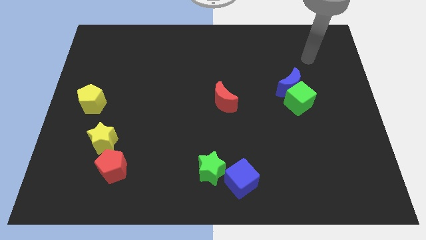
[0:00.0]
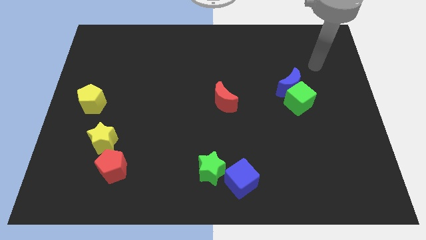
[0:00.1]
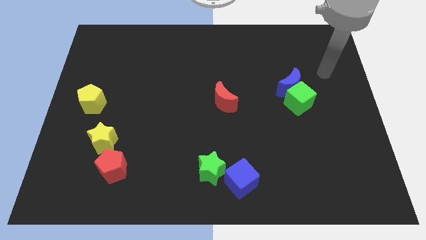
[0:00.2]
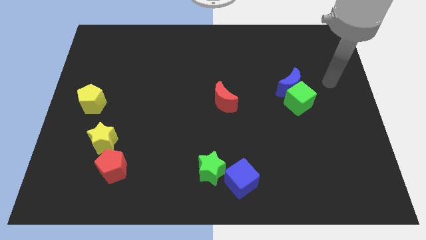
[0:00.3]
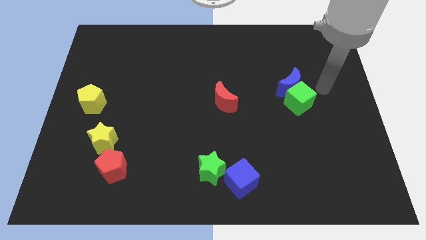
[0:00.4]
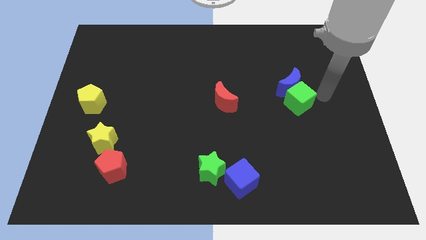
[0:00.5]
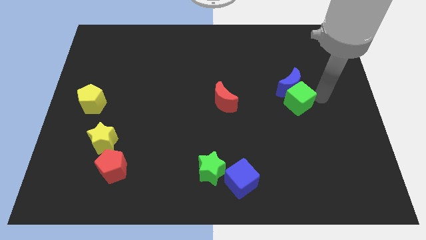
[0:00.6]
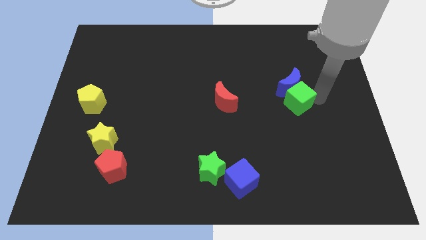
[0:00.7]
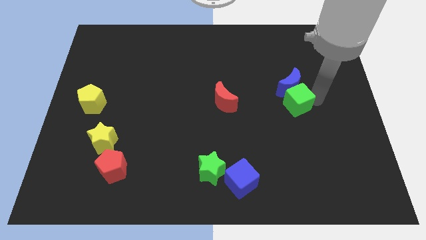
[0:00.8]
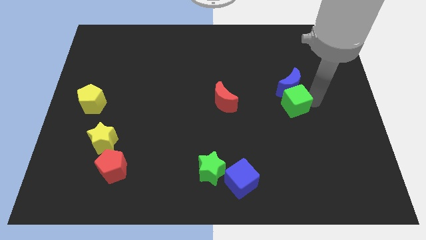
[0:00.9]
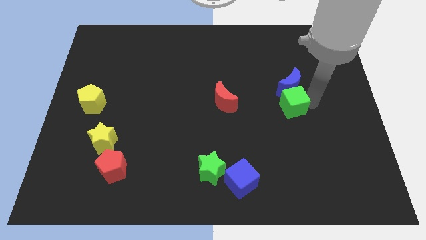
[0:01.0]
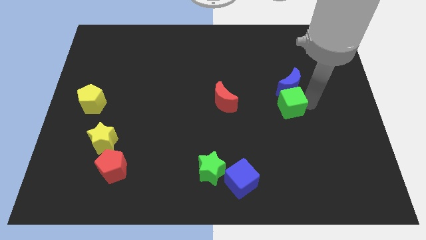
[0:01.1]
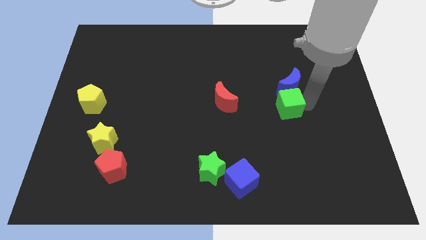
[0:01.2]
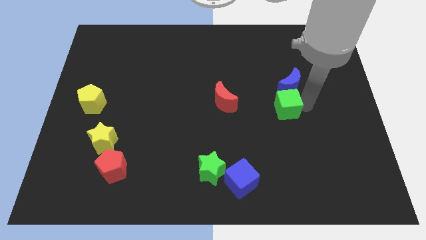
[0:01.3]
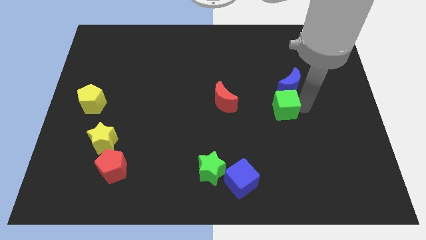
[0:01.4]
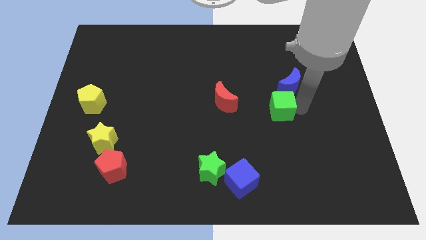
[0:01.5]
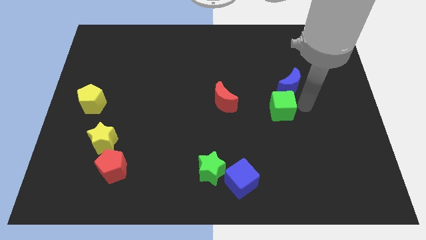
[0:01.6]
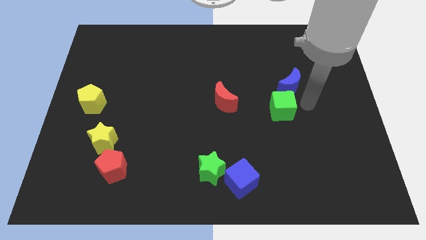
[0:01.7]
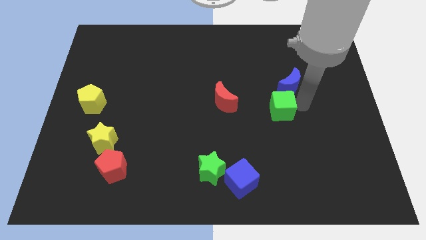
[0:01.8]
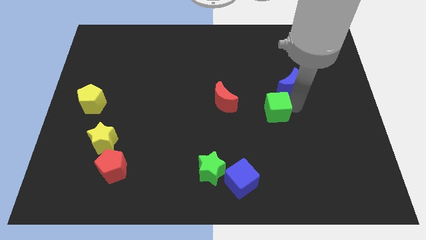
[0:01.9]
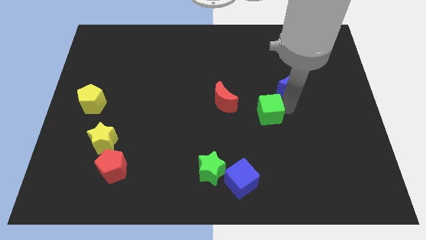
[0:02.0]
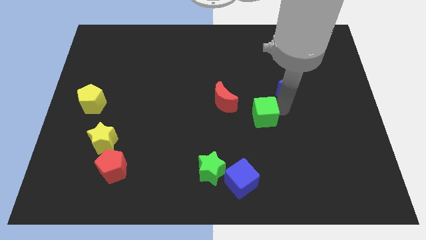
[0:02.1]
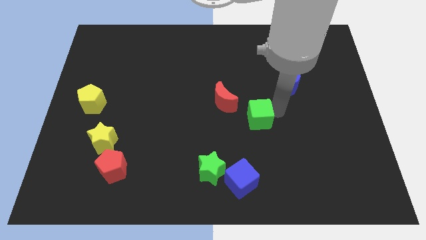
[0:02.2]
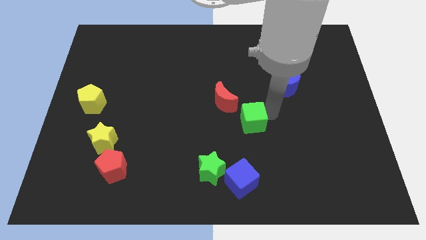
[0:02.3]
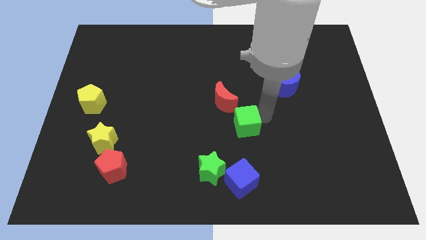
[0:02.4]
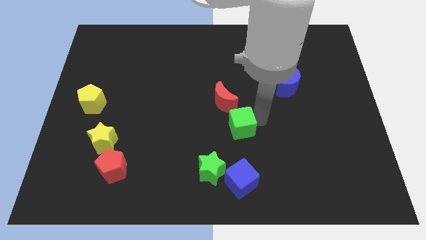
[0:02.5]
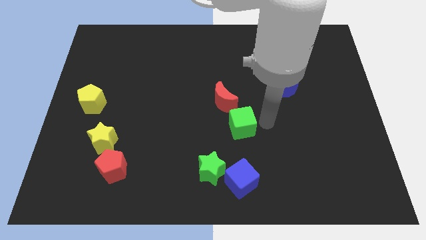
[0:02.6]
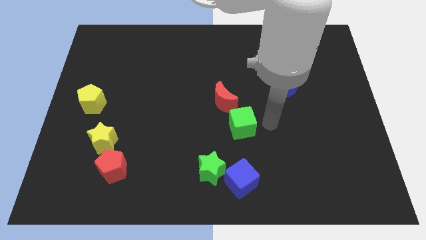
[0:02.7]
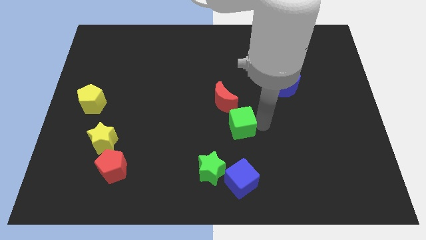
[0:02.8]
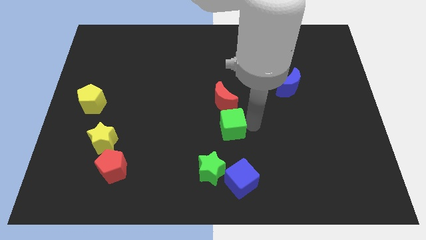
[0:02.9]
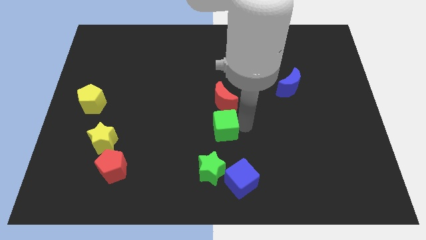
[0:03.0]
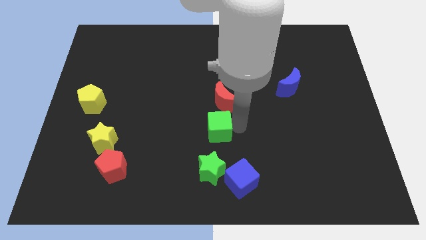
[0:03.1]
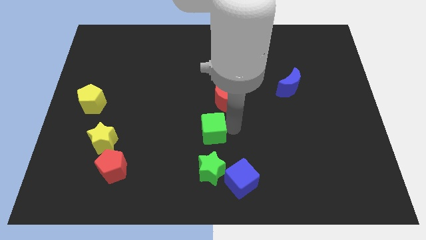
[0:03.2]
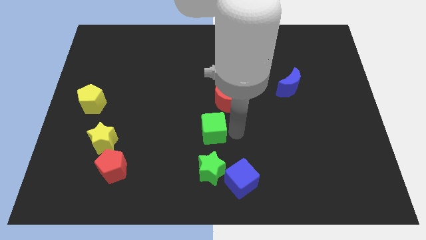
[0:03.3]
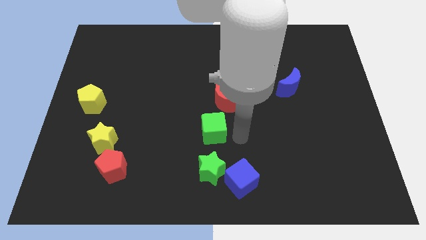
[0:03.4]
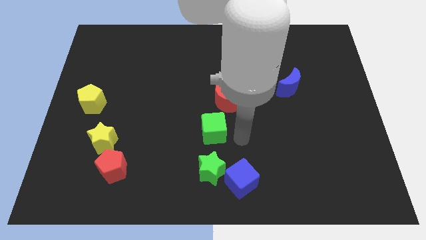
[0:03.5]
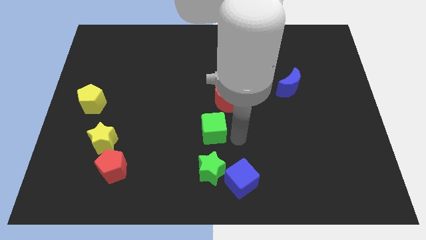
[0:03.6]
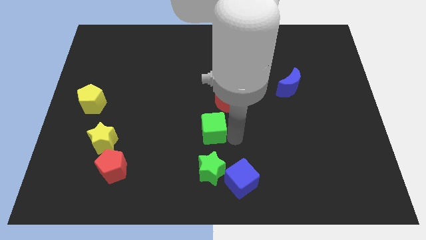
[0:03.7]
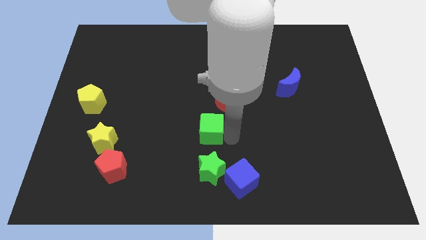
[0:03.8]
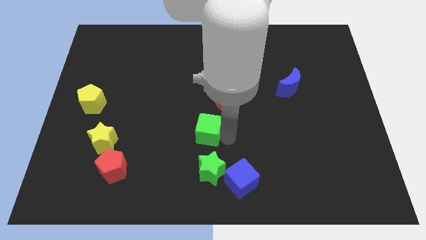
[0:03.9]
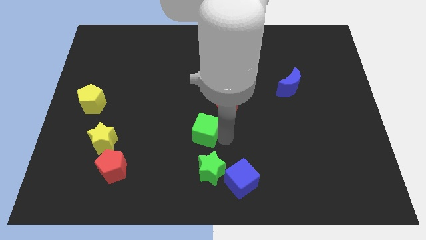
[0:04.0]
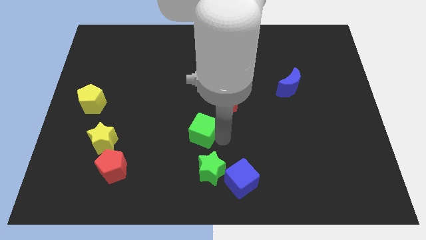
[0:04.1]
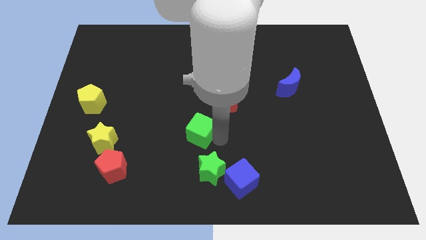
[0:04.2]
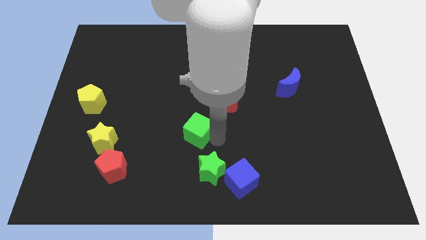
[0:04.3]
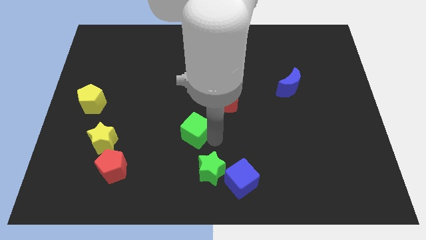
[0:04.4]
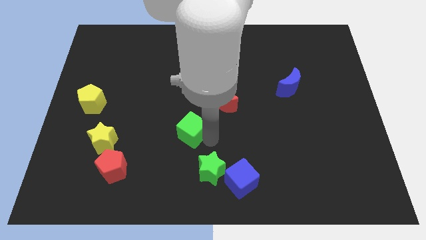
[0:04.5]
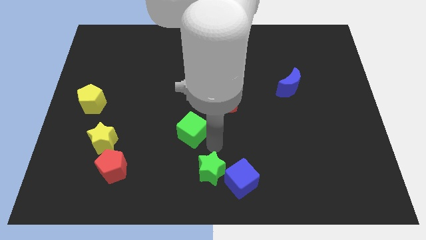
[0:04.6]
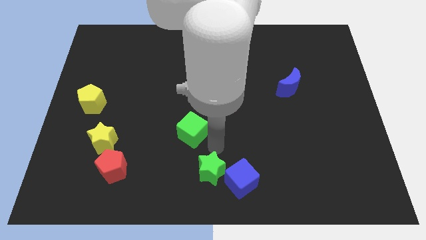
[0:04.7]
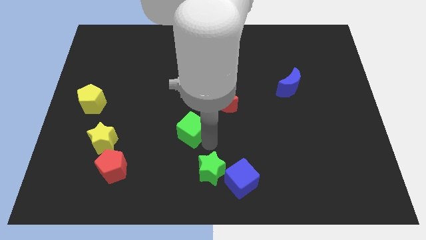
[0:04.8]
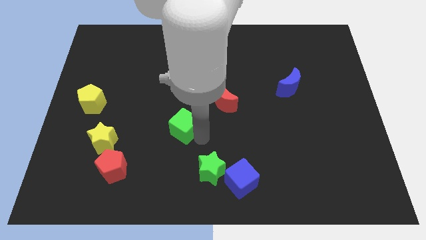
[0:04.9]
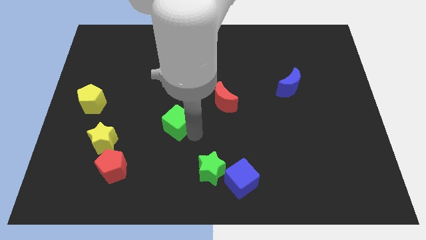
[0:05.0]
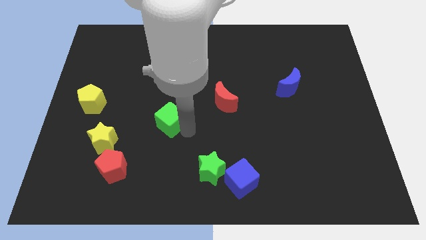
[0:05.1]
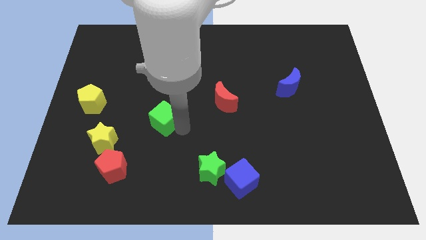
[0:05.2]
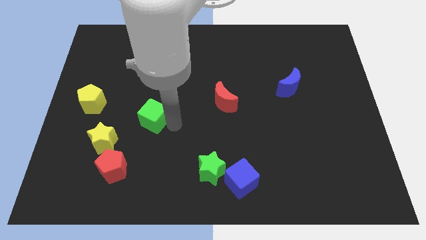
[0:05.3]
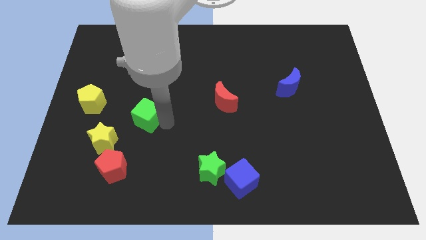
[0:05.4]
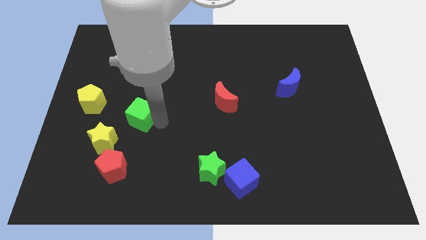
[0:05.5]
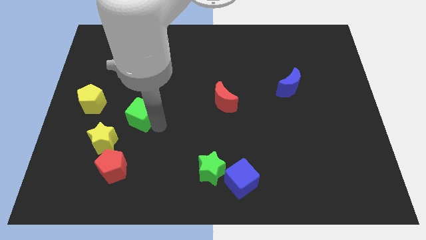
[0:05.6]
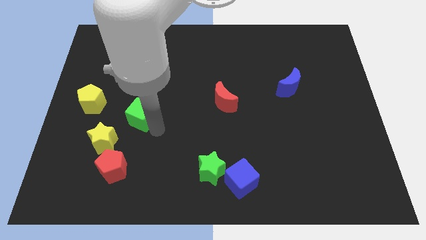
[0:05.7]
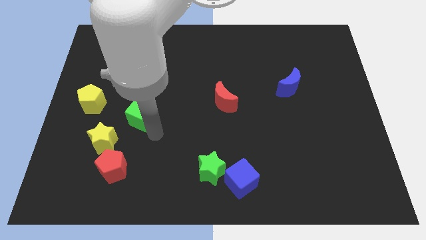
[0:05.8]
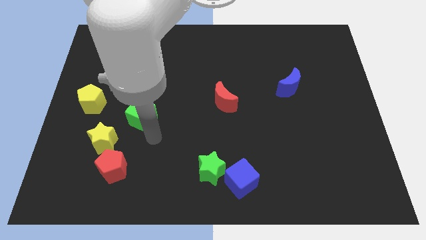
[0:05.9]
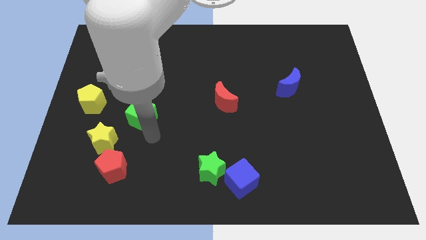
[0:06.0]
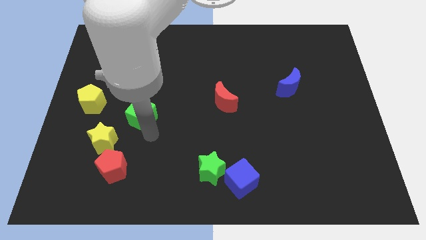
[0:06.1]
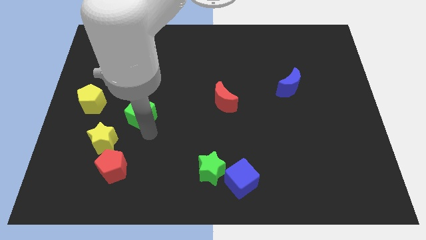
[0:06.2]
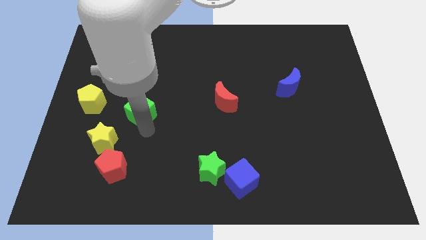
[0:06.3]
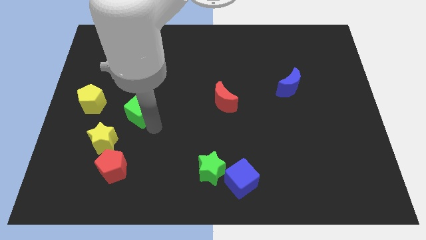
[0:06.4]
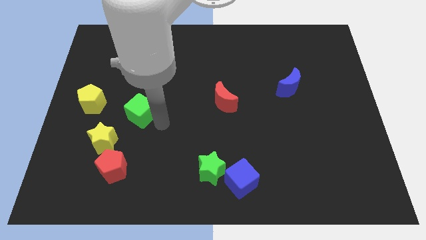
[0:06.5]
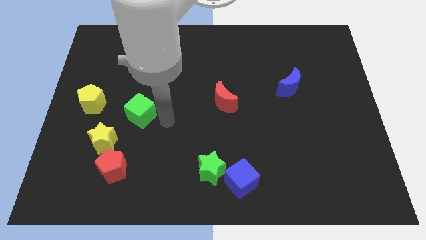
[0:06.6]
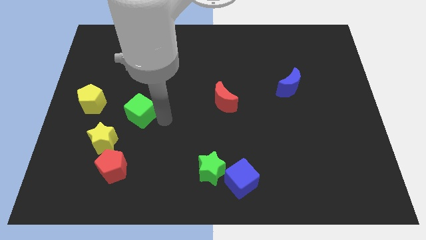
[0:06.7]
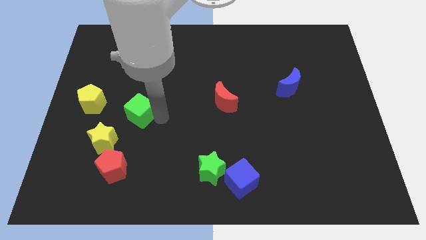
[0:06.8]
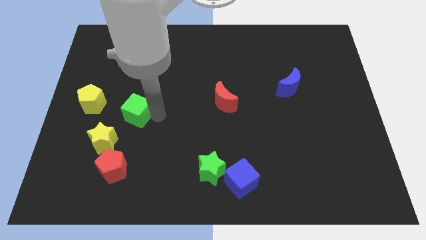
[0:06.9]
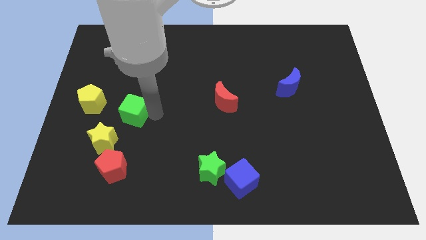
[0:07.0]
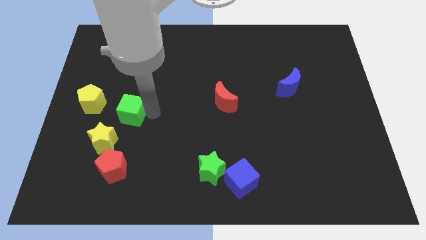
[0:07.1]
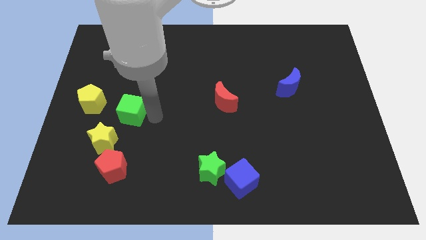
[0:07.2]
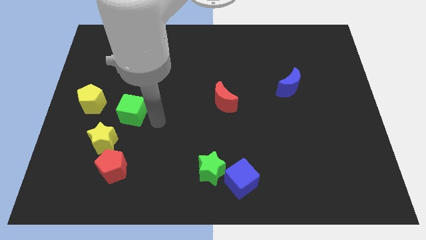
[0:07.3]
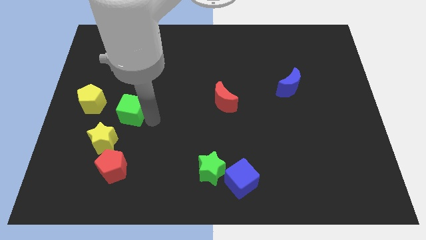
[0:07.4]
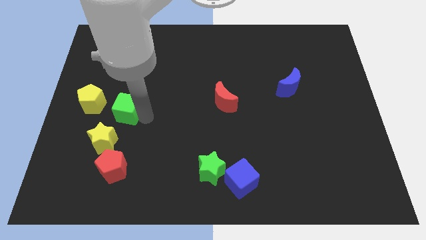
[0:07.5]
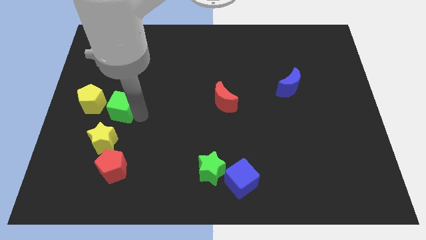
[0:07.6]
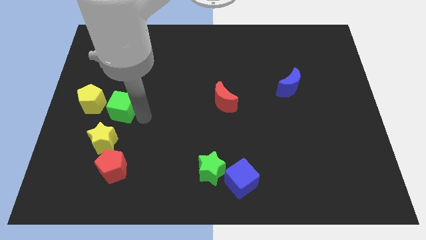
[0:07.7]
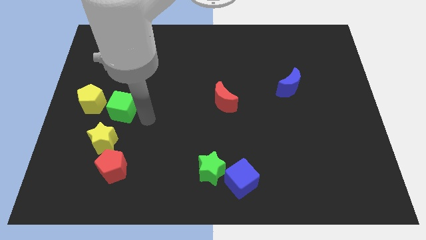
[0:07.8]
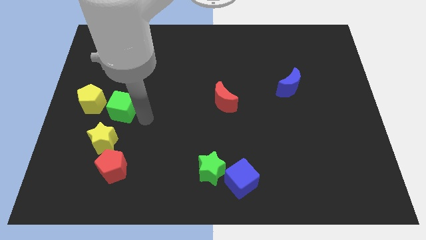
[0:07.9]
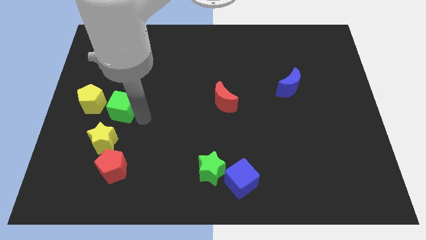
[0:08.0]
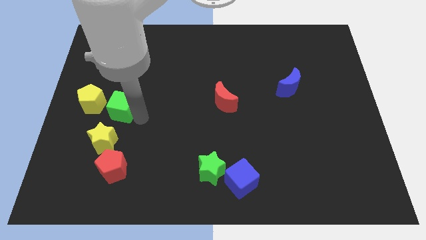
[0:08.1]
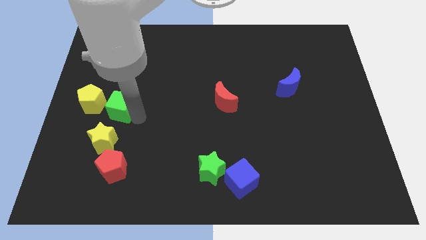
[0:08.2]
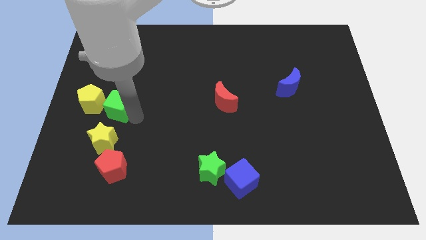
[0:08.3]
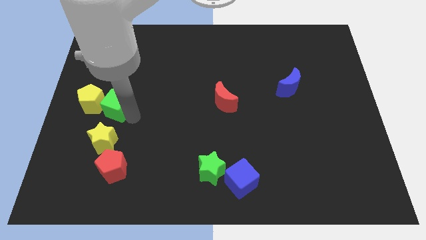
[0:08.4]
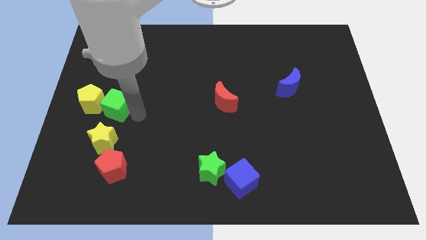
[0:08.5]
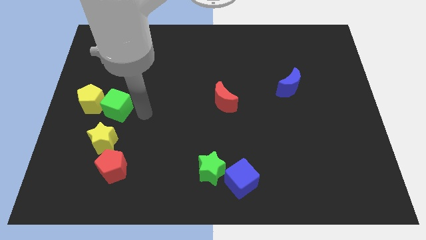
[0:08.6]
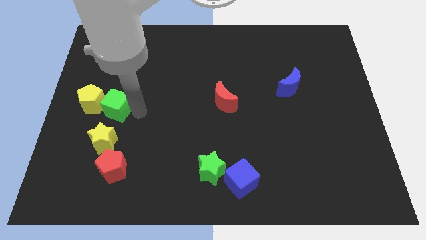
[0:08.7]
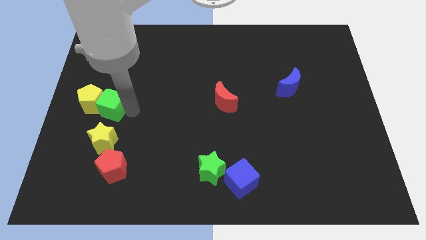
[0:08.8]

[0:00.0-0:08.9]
put the green cube next to the yellow pentagon
